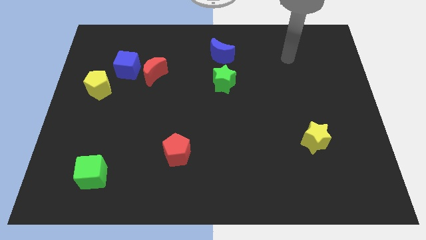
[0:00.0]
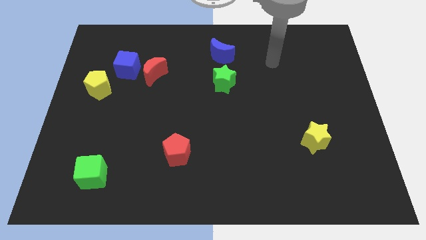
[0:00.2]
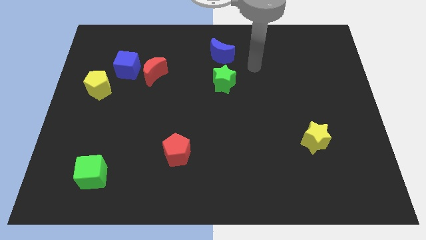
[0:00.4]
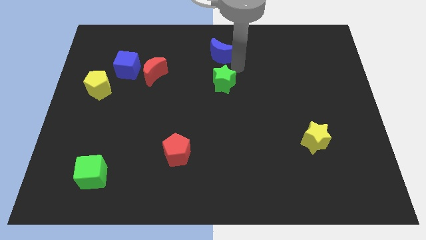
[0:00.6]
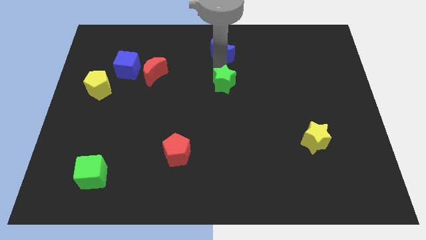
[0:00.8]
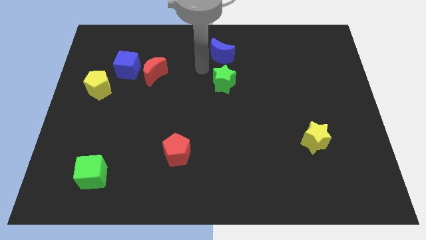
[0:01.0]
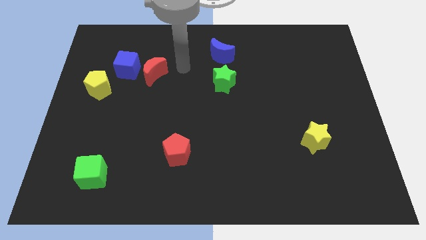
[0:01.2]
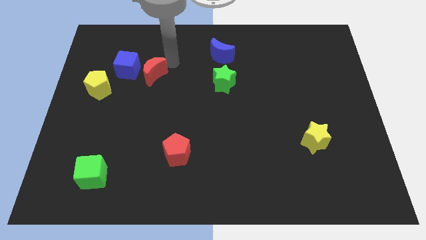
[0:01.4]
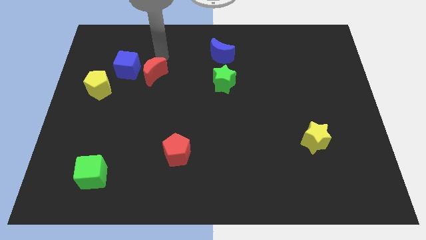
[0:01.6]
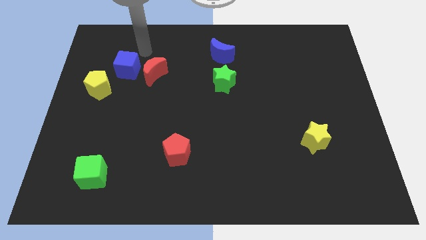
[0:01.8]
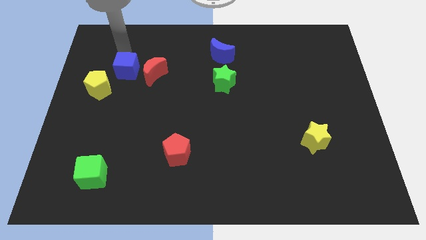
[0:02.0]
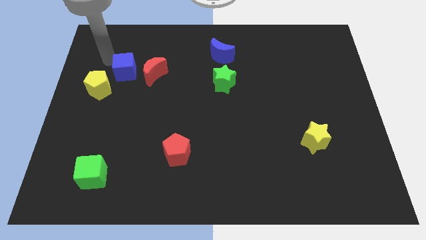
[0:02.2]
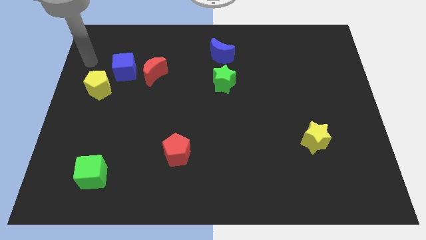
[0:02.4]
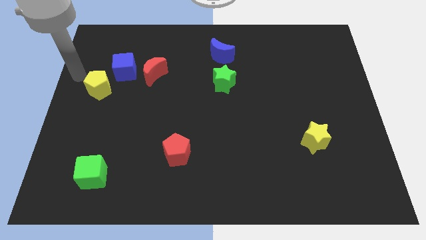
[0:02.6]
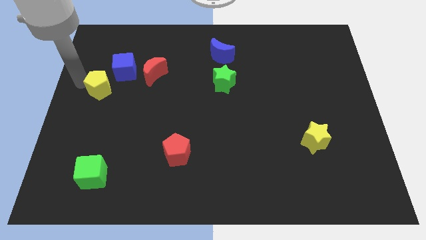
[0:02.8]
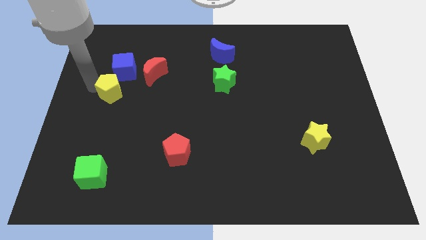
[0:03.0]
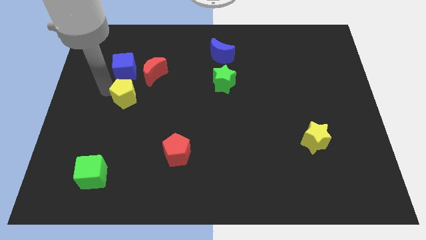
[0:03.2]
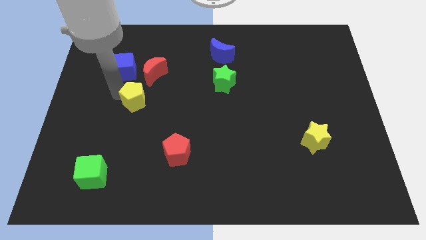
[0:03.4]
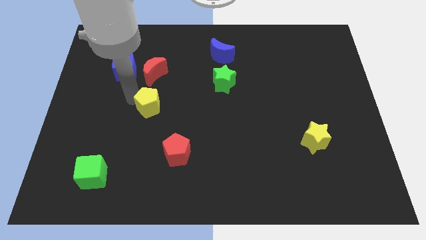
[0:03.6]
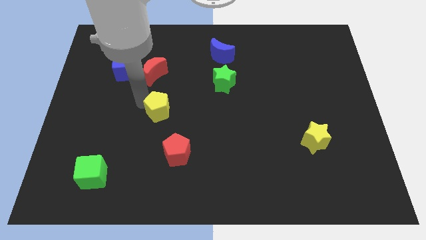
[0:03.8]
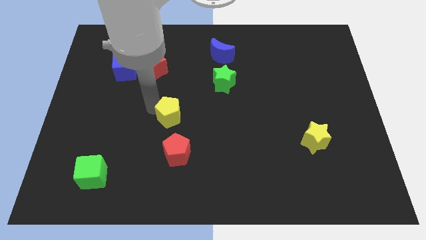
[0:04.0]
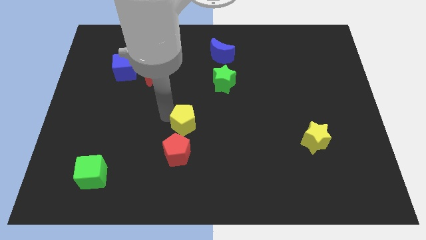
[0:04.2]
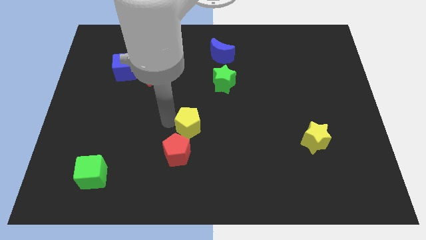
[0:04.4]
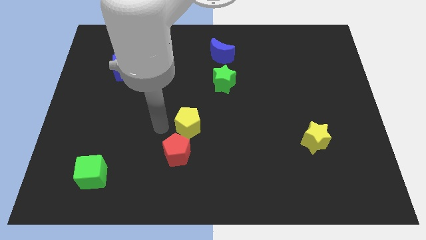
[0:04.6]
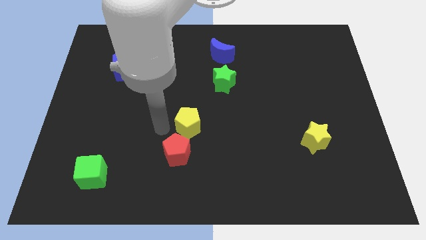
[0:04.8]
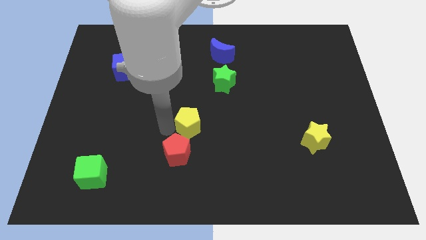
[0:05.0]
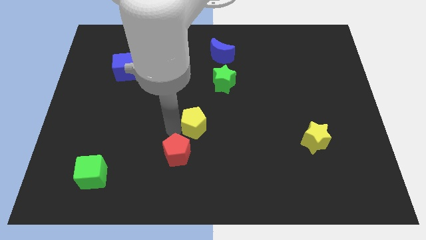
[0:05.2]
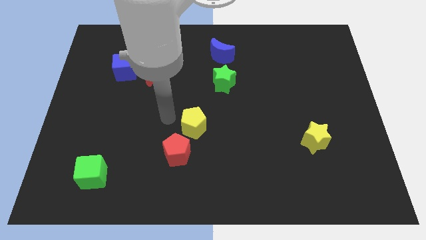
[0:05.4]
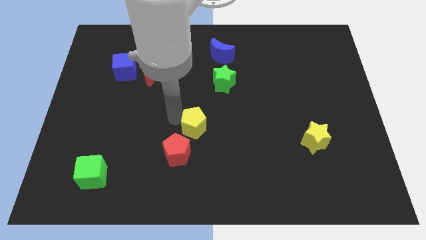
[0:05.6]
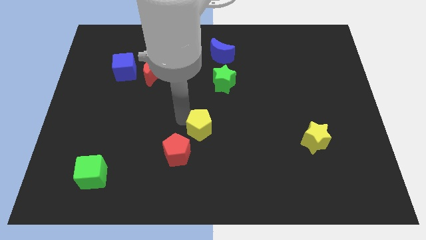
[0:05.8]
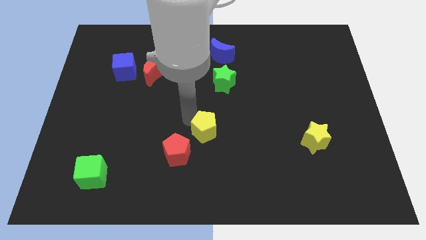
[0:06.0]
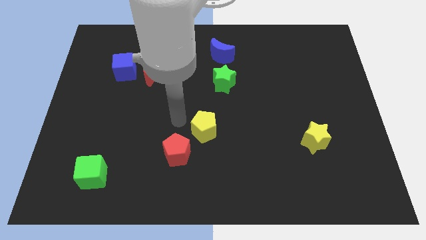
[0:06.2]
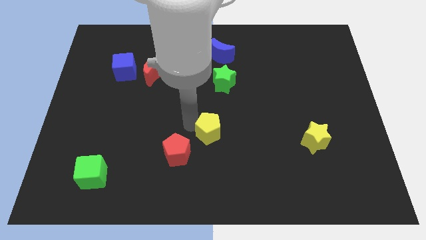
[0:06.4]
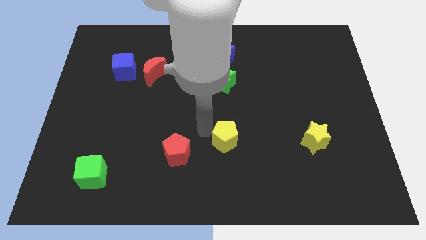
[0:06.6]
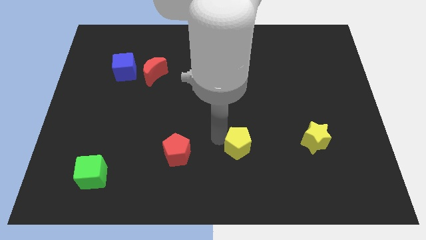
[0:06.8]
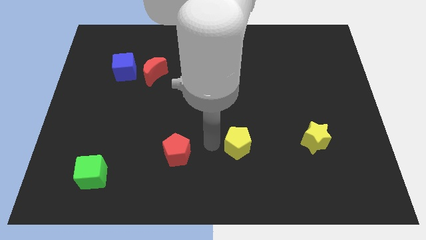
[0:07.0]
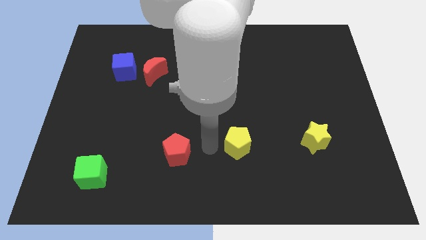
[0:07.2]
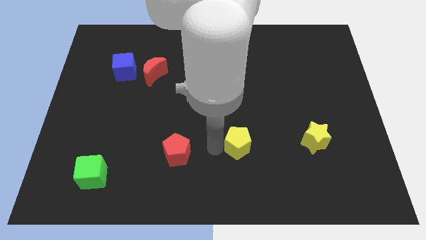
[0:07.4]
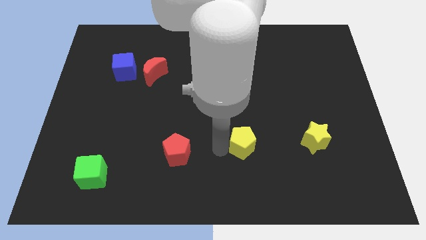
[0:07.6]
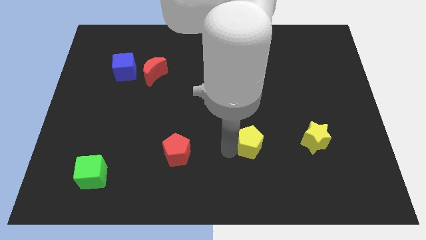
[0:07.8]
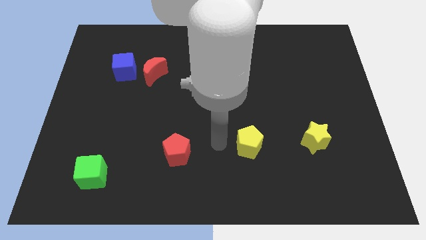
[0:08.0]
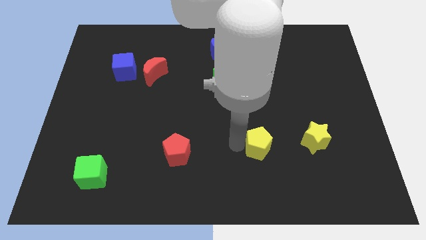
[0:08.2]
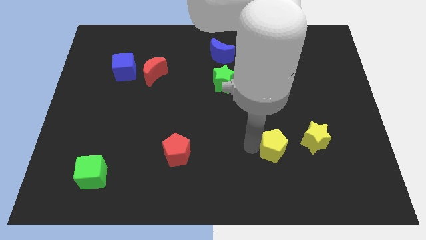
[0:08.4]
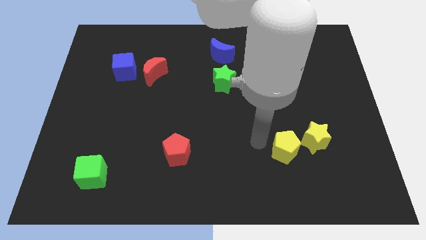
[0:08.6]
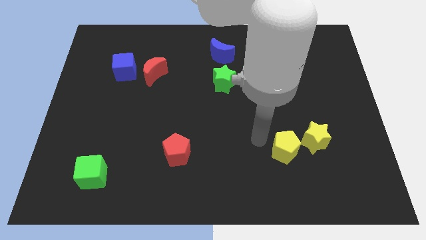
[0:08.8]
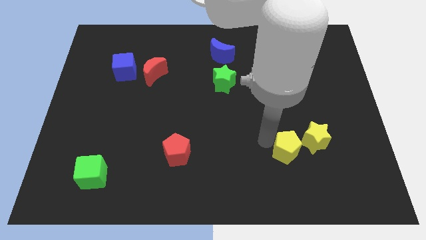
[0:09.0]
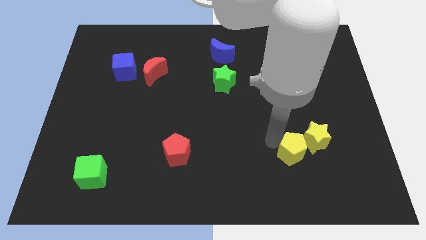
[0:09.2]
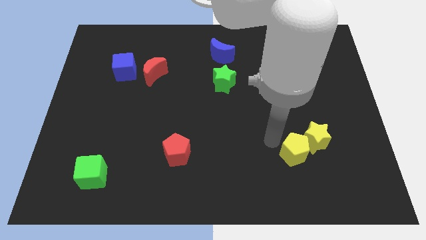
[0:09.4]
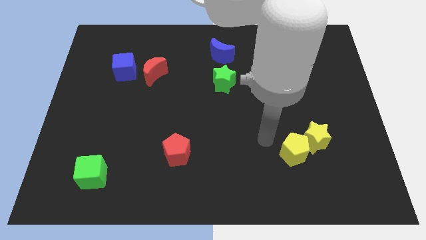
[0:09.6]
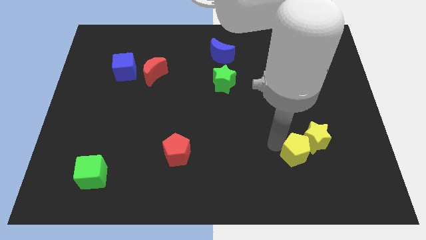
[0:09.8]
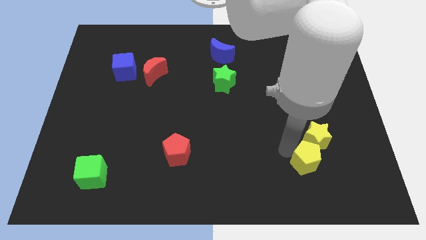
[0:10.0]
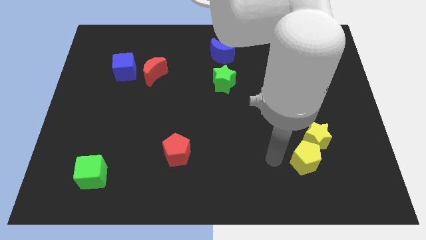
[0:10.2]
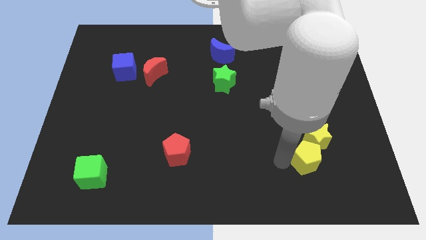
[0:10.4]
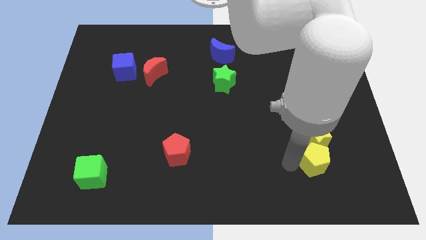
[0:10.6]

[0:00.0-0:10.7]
slide the yellow pentagon to the bottom right side of the yellow star

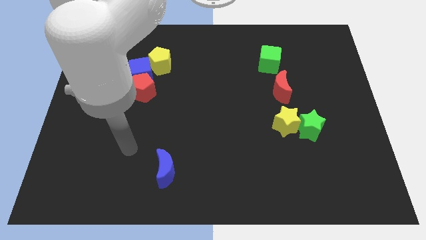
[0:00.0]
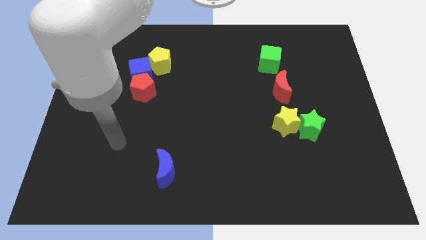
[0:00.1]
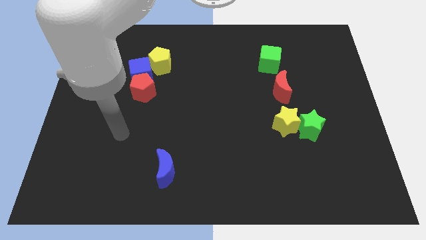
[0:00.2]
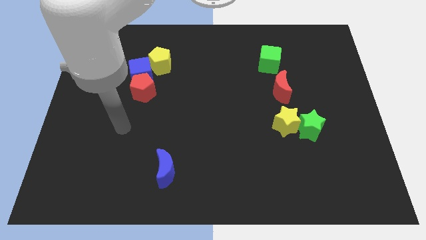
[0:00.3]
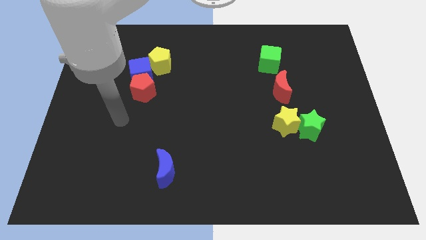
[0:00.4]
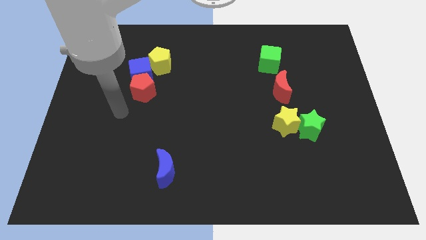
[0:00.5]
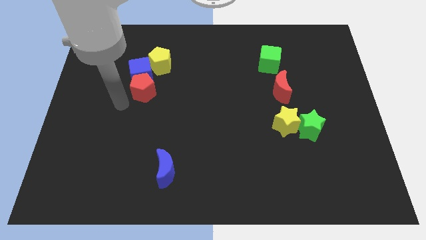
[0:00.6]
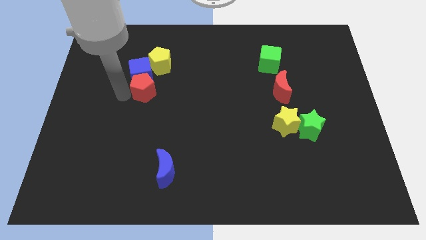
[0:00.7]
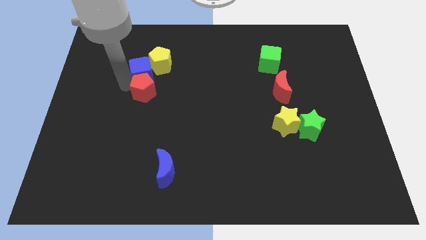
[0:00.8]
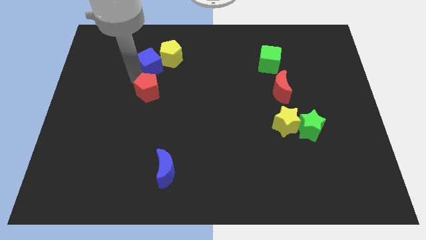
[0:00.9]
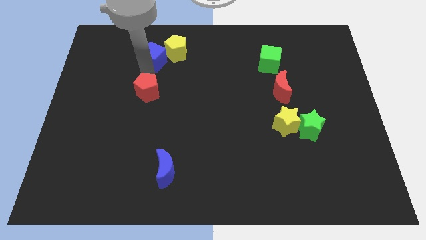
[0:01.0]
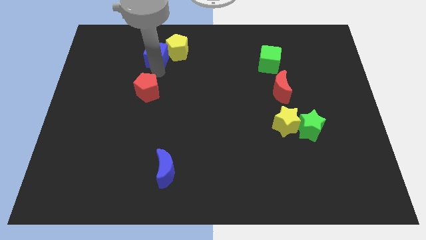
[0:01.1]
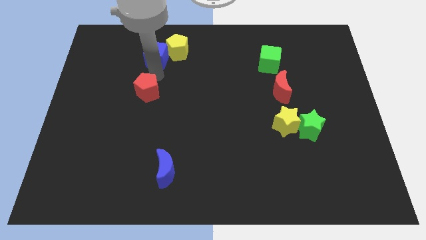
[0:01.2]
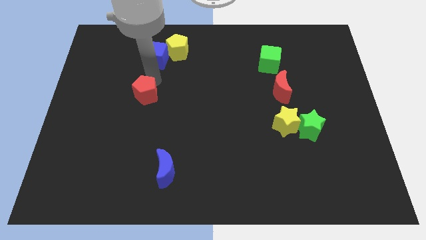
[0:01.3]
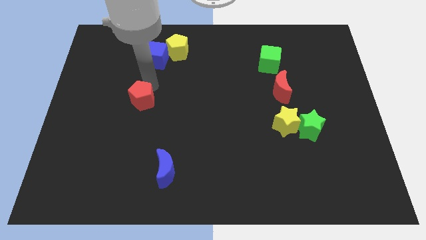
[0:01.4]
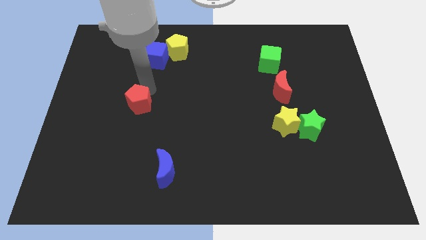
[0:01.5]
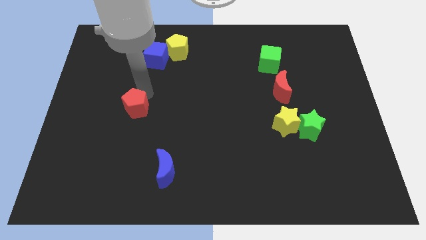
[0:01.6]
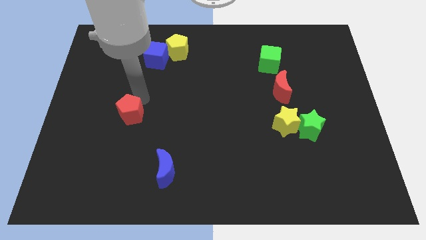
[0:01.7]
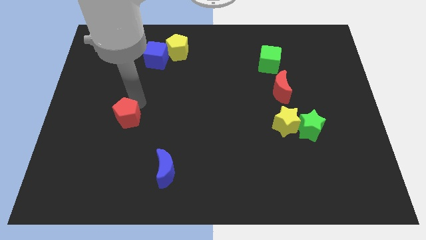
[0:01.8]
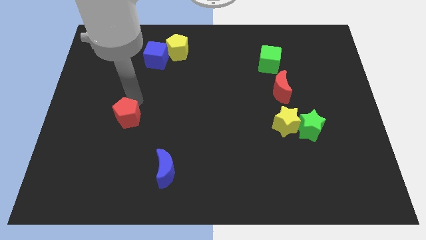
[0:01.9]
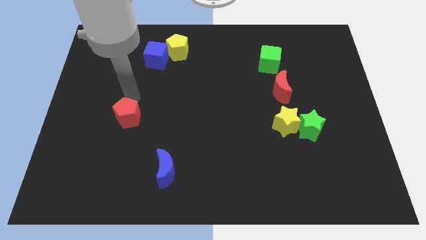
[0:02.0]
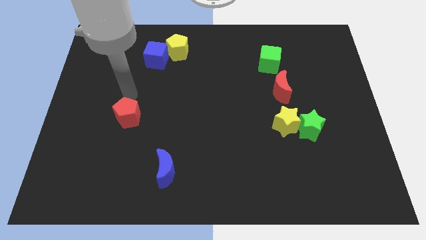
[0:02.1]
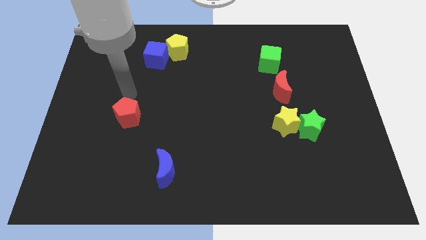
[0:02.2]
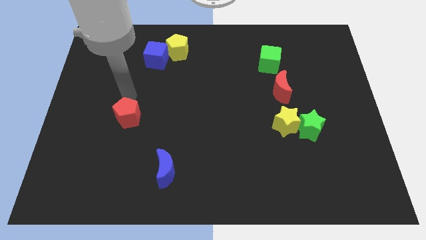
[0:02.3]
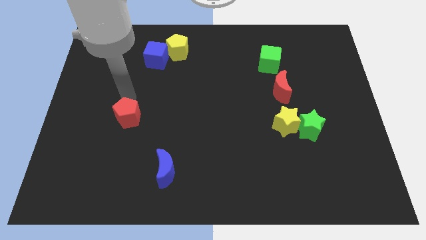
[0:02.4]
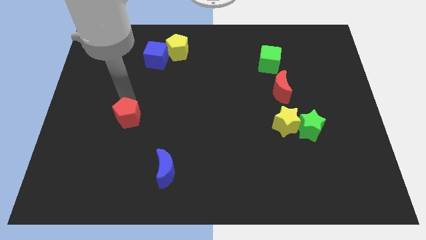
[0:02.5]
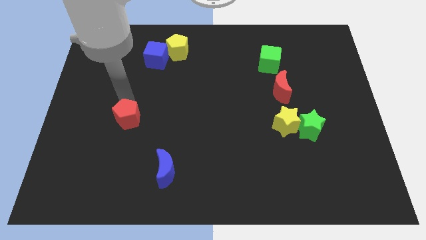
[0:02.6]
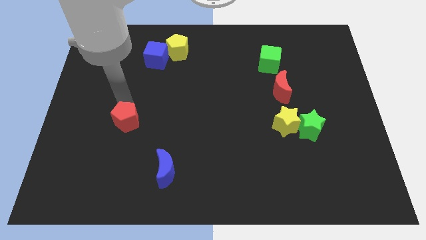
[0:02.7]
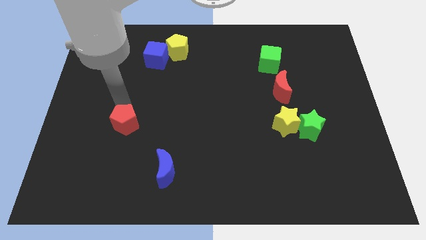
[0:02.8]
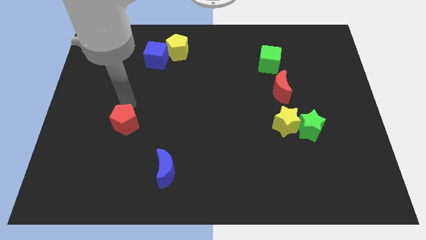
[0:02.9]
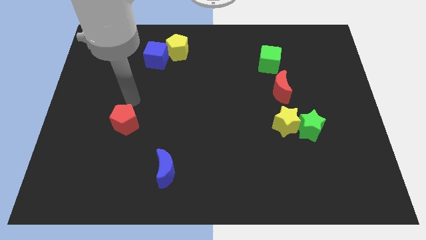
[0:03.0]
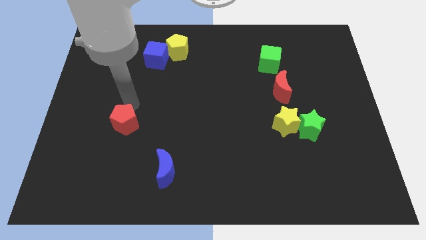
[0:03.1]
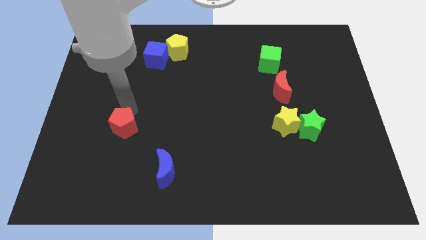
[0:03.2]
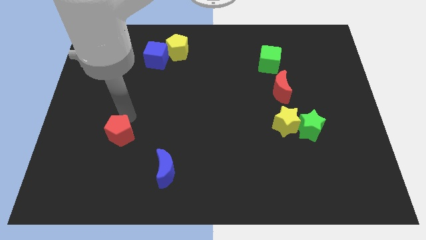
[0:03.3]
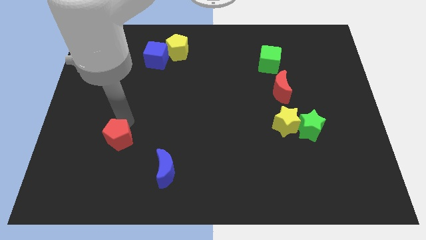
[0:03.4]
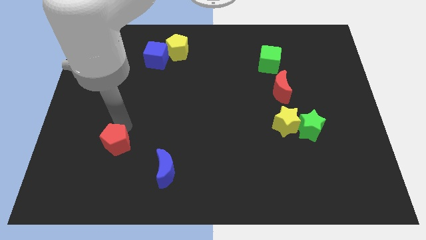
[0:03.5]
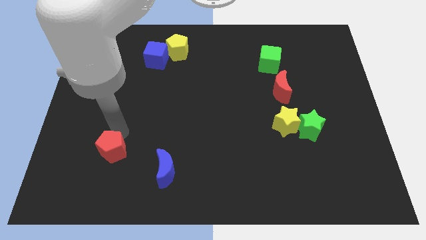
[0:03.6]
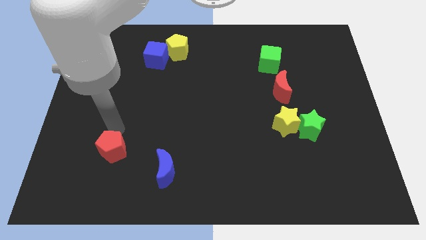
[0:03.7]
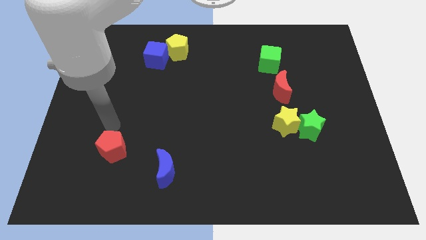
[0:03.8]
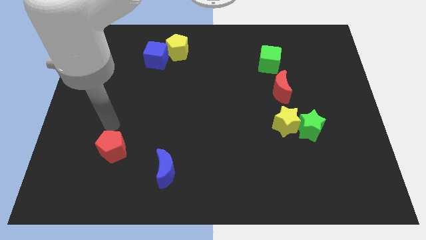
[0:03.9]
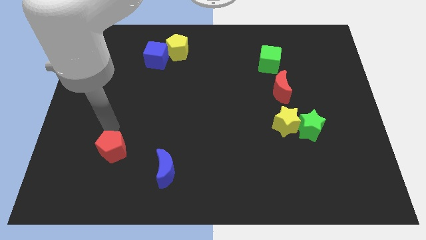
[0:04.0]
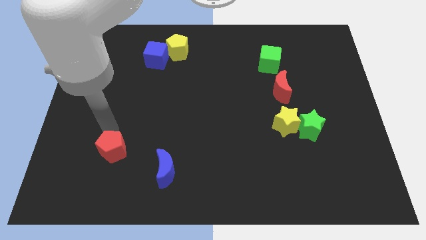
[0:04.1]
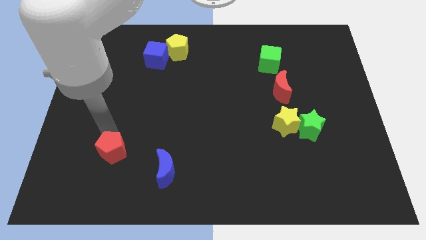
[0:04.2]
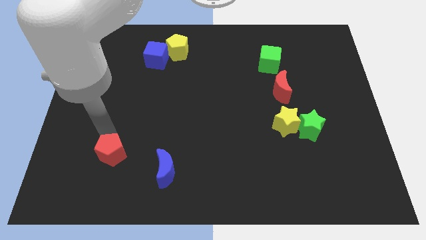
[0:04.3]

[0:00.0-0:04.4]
push the red pentagon left of the blue moon
